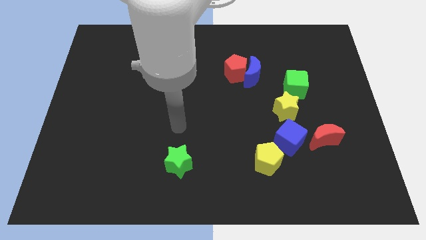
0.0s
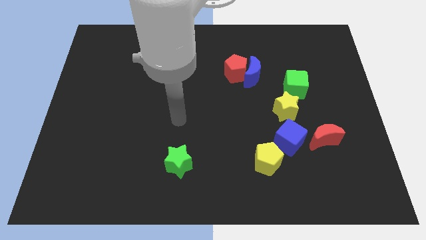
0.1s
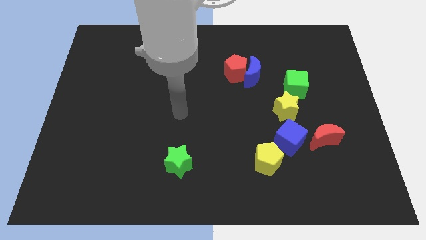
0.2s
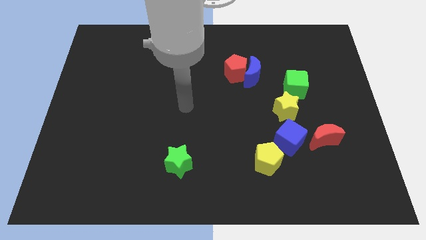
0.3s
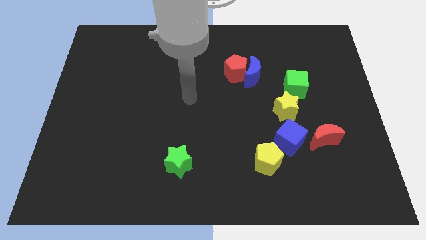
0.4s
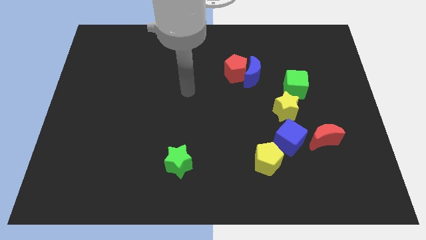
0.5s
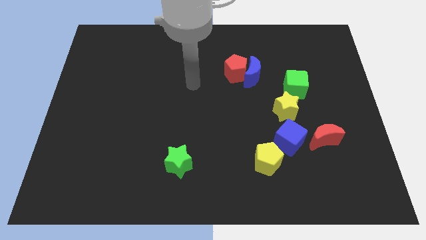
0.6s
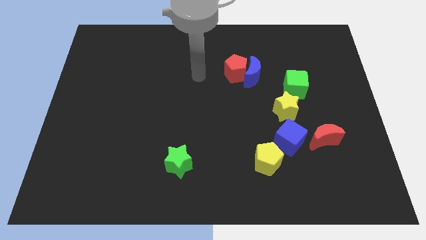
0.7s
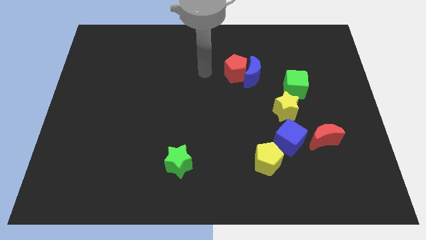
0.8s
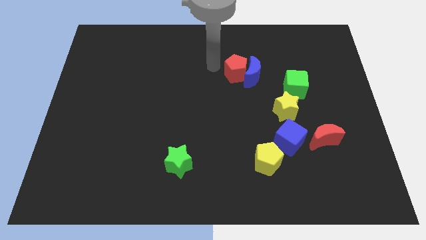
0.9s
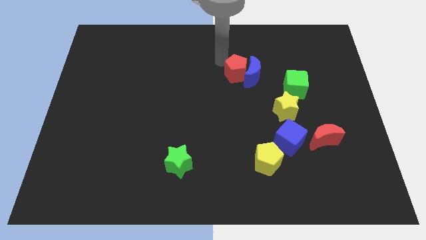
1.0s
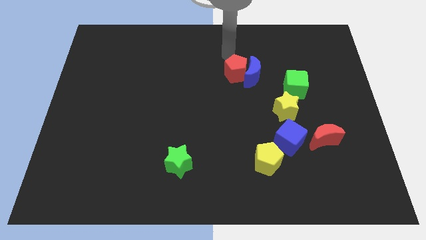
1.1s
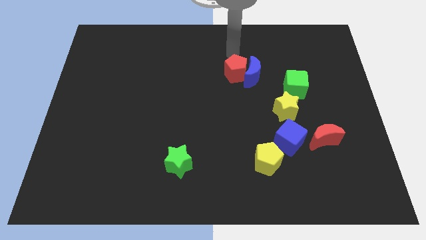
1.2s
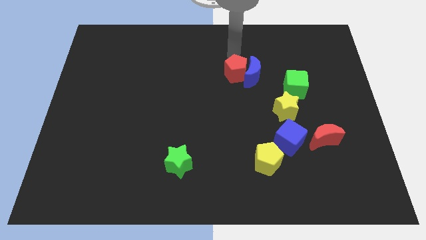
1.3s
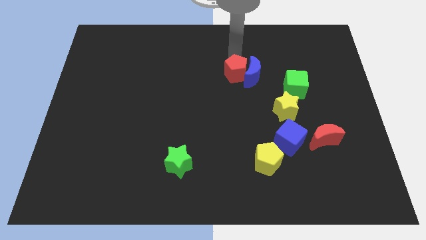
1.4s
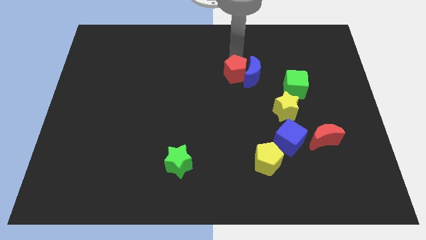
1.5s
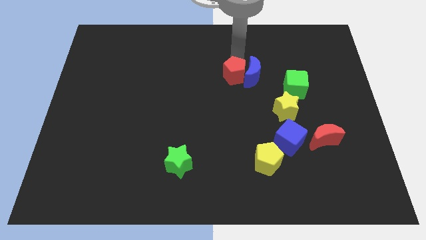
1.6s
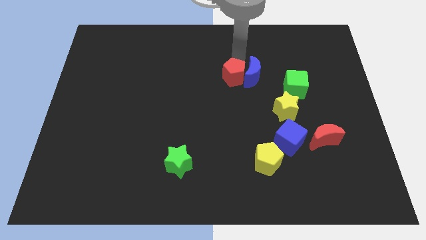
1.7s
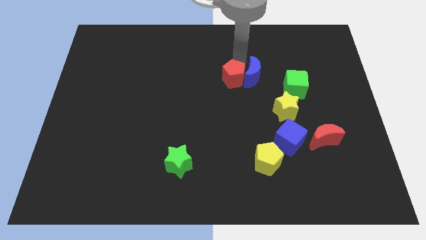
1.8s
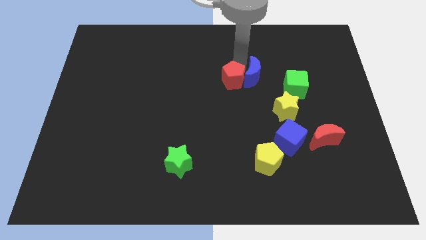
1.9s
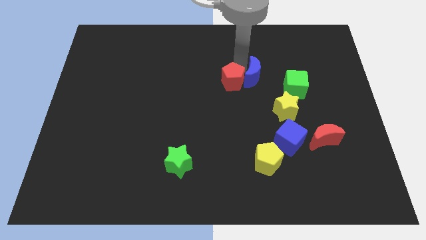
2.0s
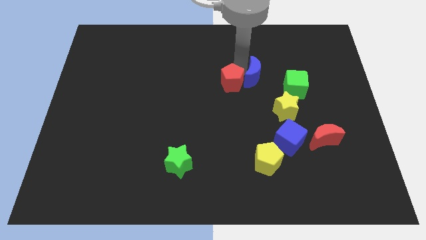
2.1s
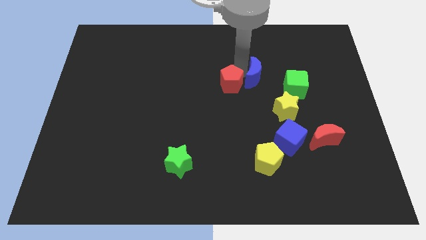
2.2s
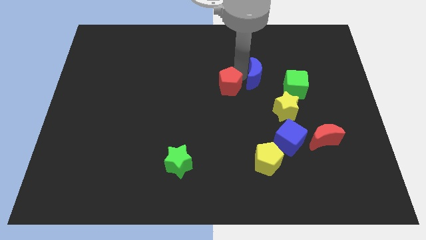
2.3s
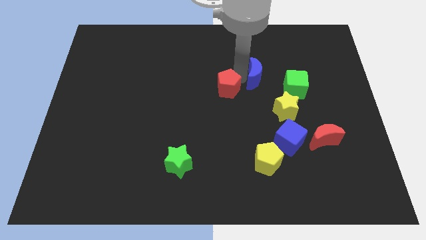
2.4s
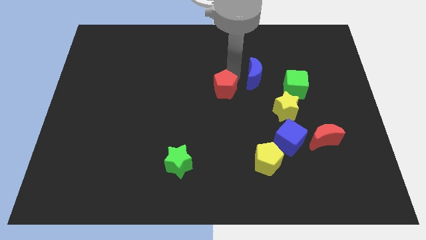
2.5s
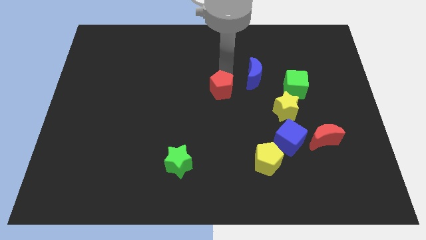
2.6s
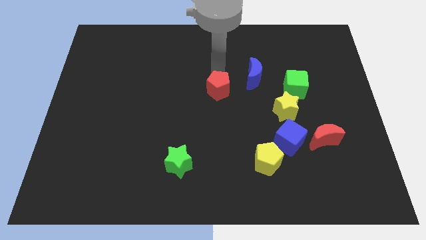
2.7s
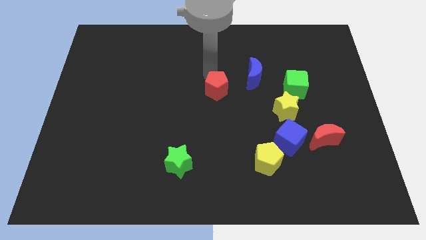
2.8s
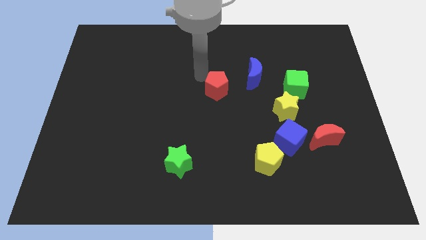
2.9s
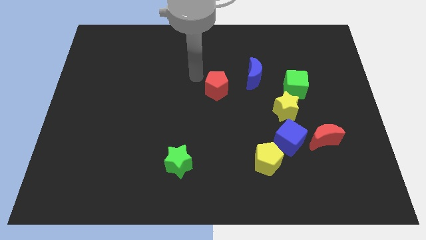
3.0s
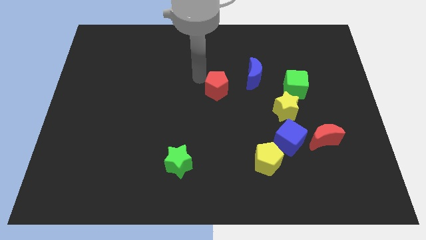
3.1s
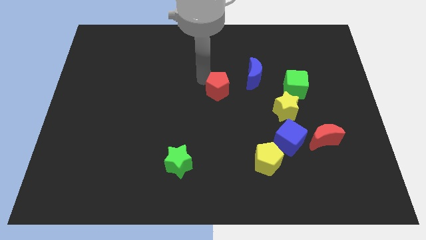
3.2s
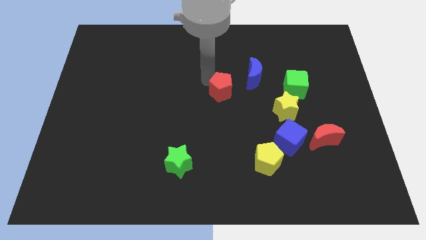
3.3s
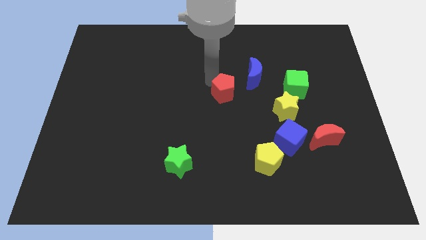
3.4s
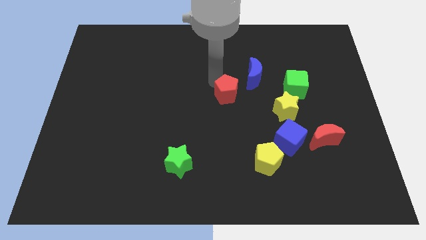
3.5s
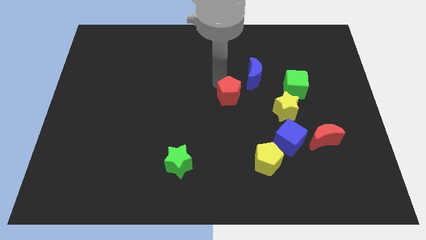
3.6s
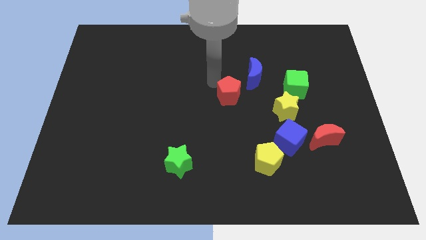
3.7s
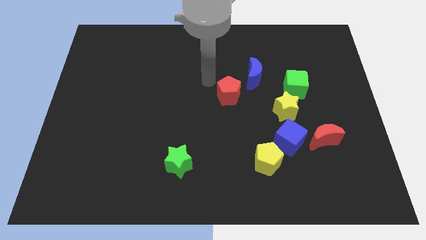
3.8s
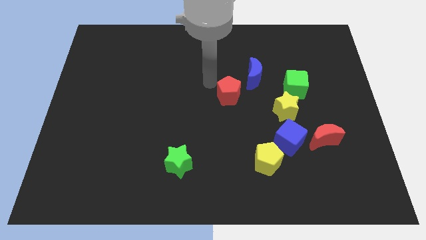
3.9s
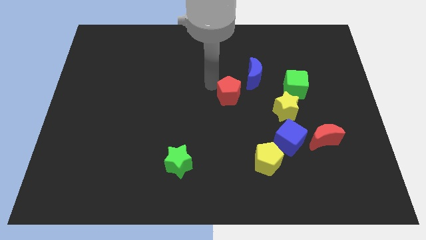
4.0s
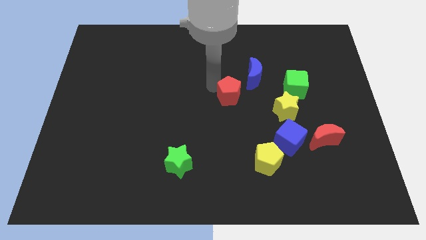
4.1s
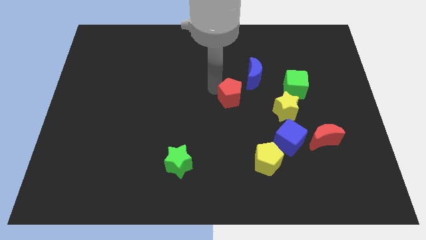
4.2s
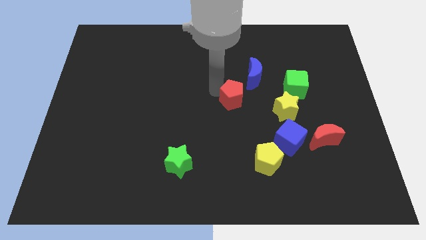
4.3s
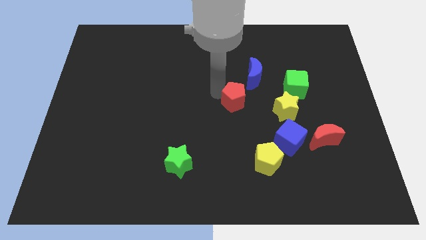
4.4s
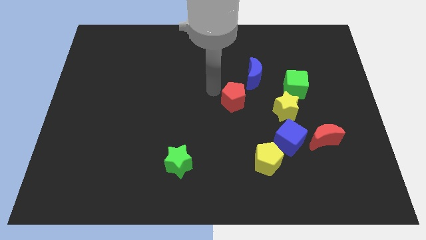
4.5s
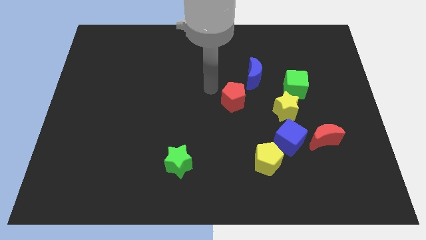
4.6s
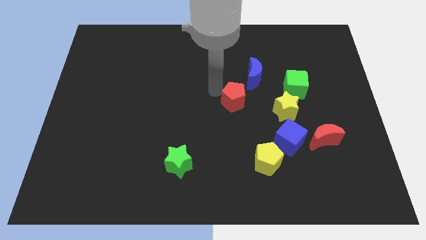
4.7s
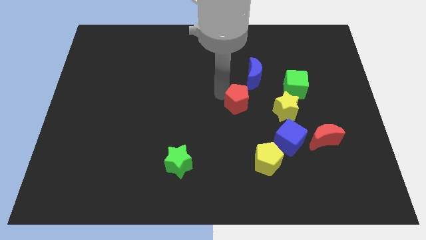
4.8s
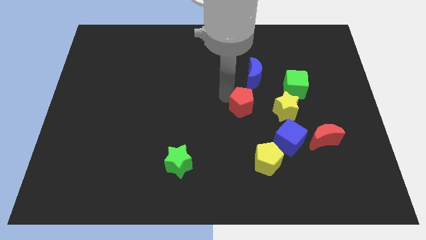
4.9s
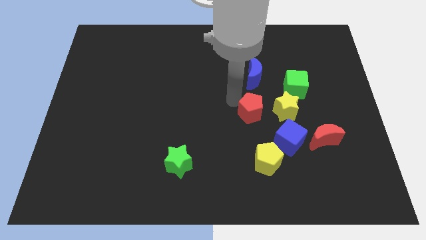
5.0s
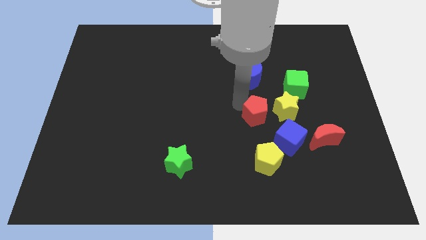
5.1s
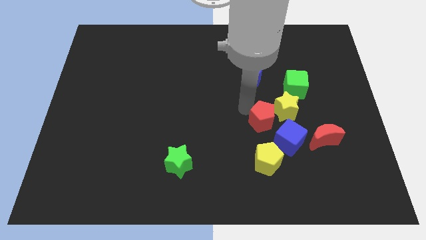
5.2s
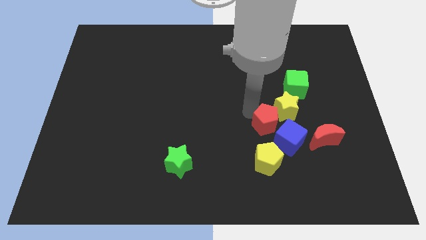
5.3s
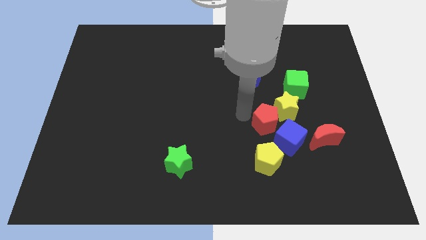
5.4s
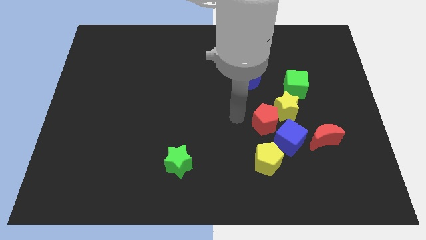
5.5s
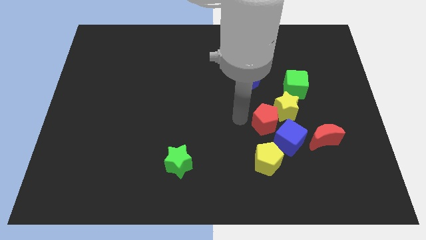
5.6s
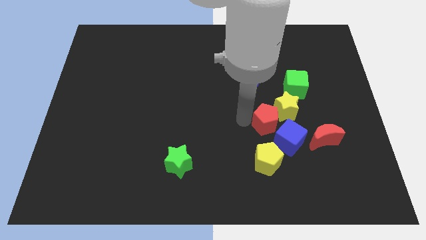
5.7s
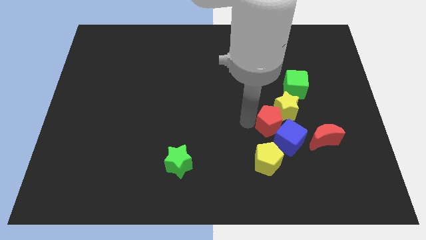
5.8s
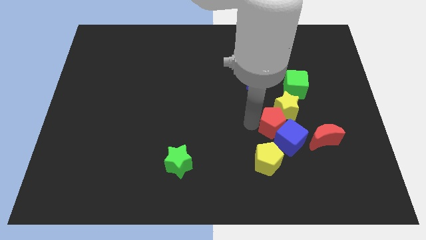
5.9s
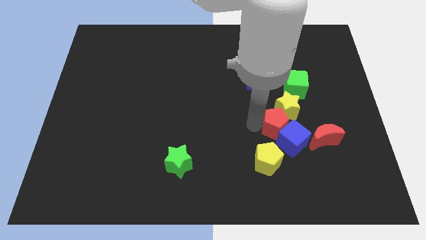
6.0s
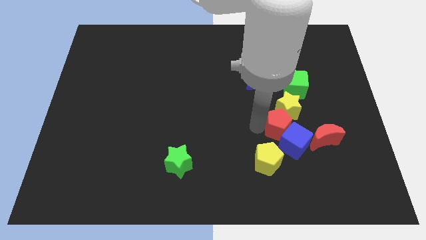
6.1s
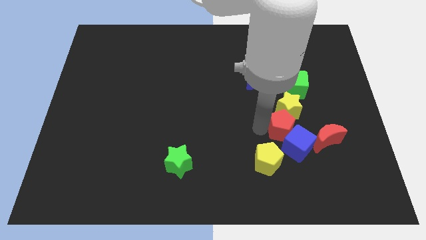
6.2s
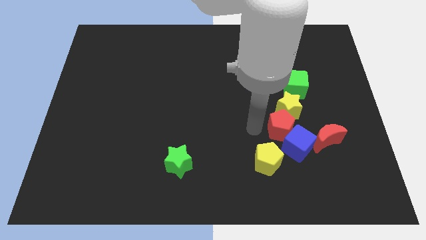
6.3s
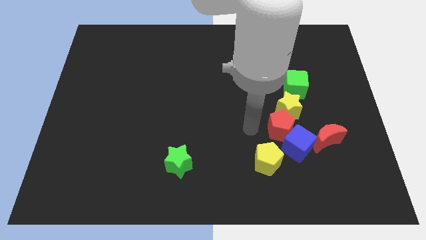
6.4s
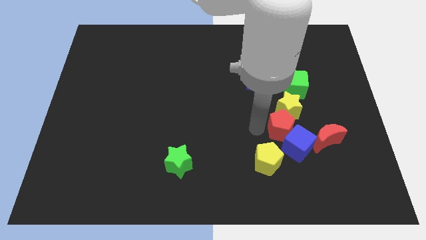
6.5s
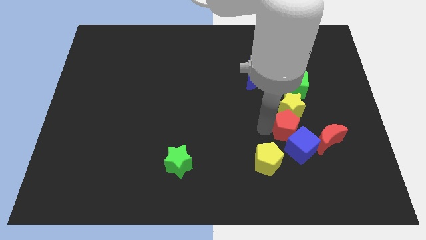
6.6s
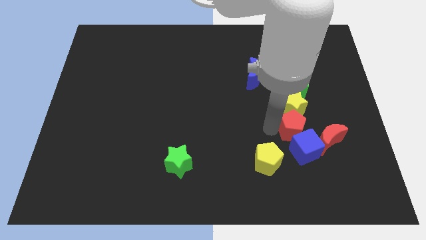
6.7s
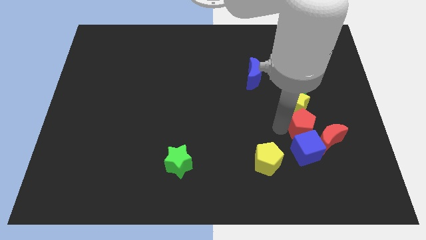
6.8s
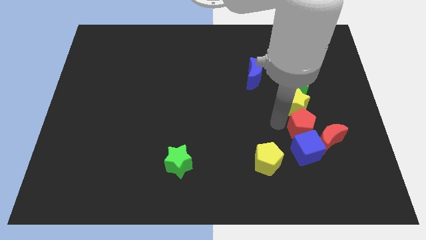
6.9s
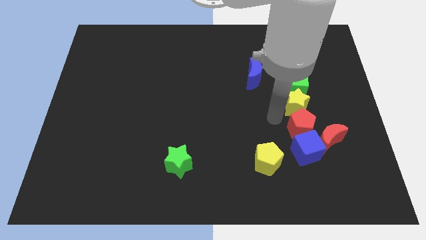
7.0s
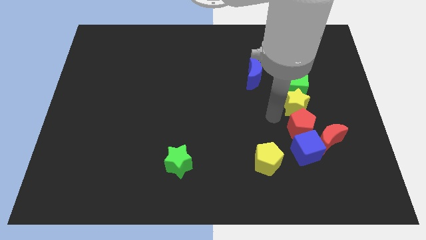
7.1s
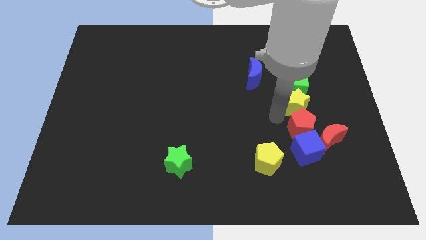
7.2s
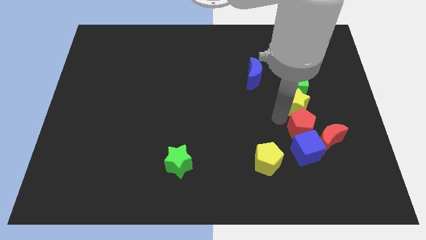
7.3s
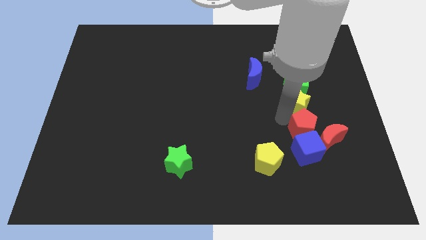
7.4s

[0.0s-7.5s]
push the red pentagon next to the red moon

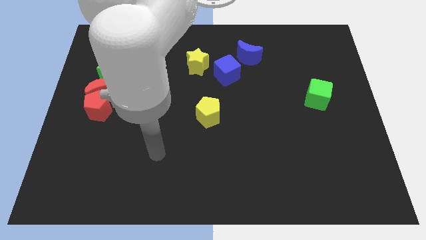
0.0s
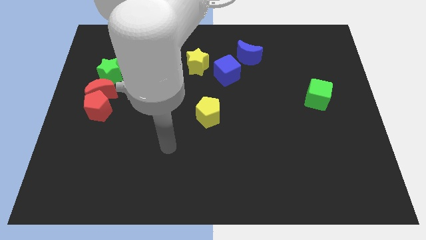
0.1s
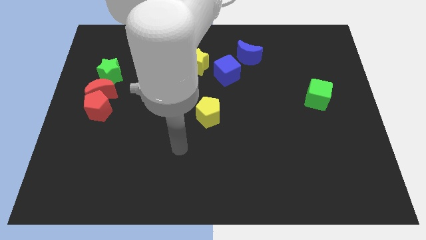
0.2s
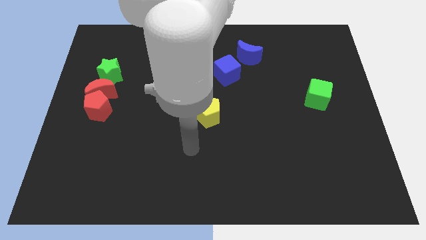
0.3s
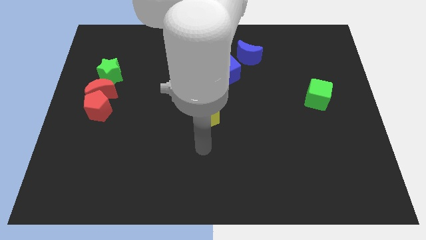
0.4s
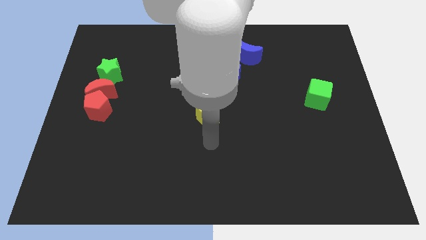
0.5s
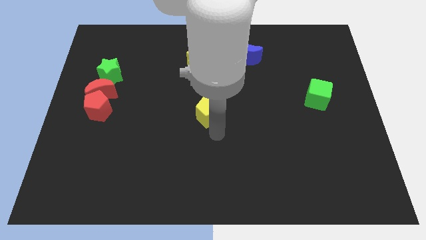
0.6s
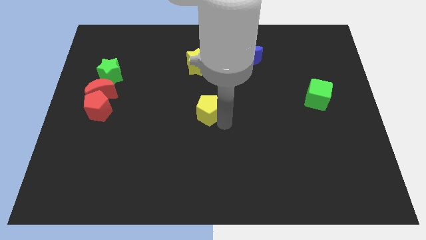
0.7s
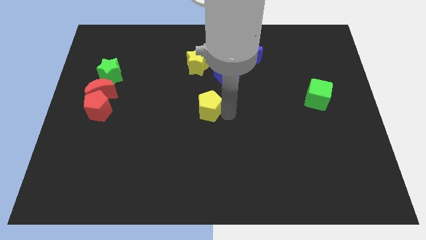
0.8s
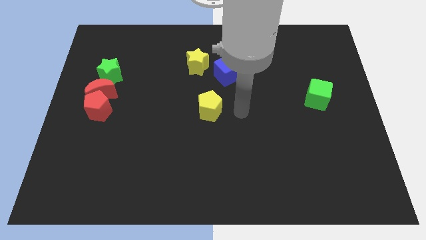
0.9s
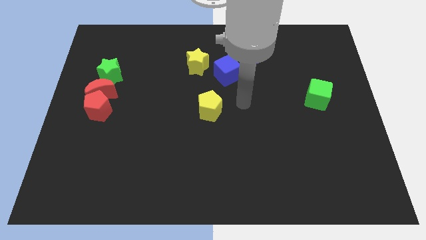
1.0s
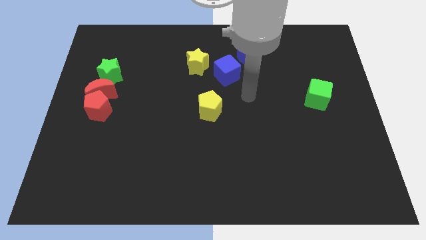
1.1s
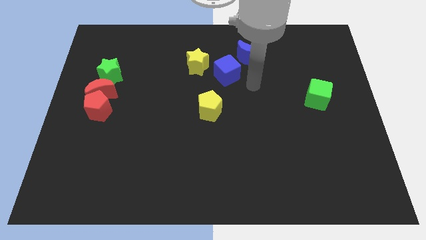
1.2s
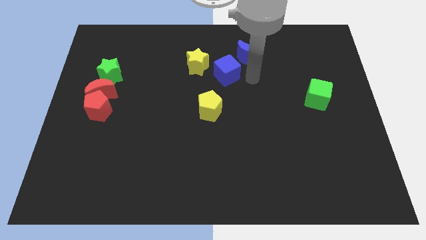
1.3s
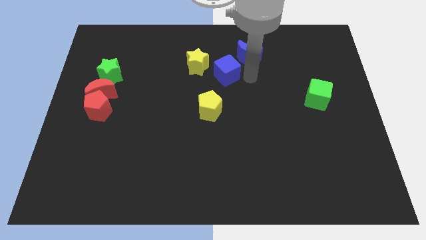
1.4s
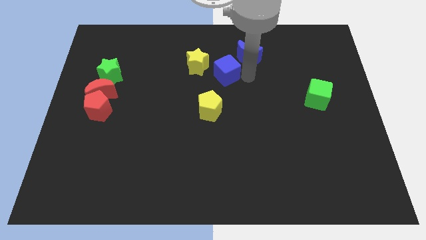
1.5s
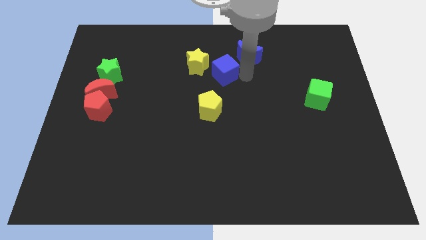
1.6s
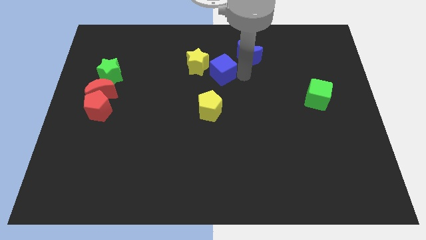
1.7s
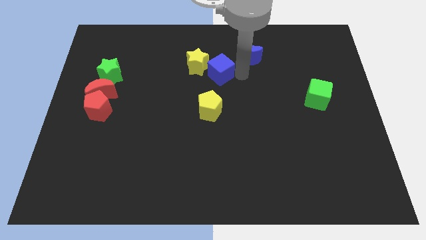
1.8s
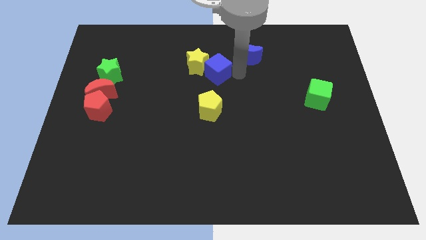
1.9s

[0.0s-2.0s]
slide the blue cube next to the yellow star
